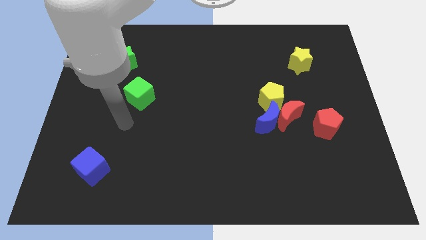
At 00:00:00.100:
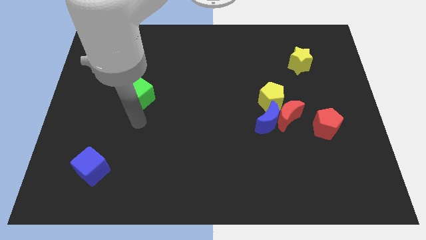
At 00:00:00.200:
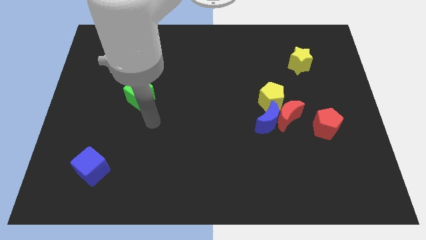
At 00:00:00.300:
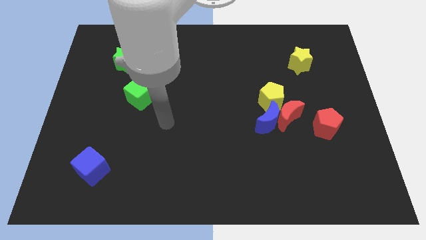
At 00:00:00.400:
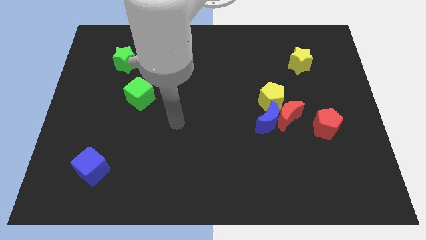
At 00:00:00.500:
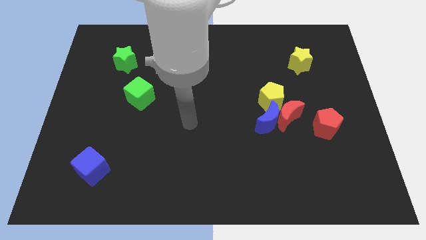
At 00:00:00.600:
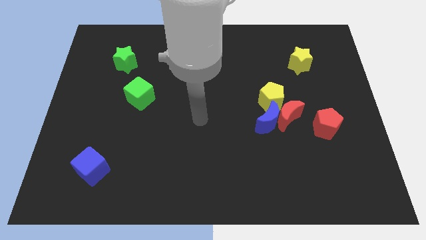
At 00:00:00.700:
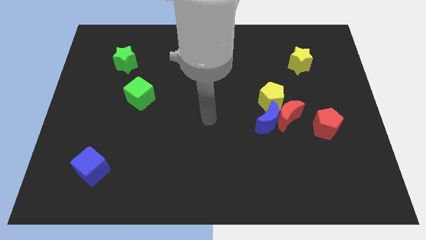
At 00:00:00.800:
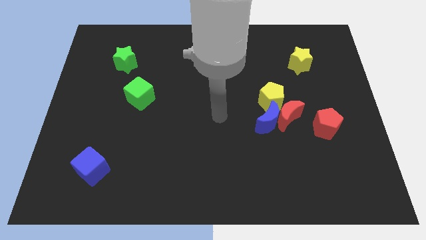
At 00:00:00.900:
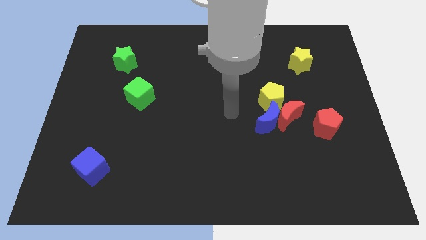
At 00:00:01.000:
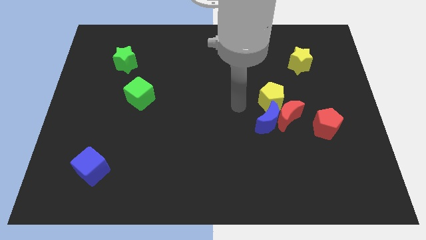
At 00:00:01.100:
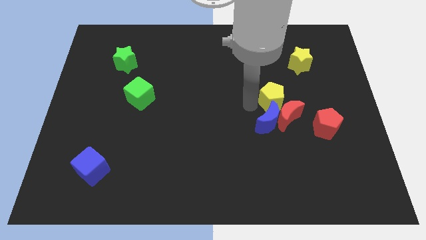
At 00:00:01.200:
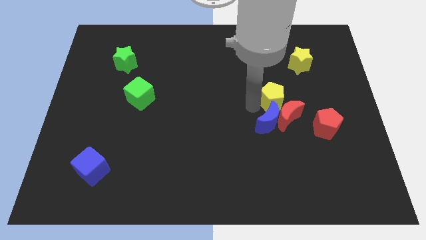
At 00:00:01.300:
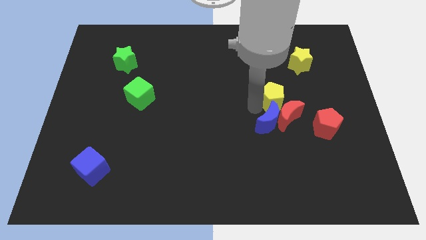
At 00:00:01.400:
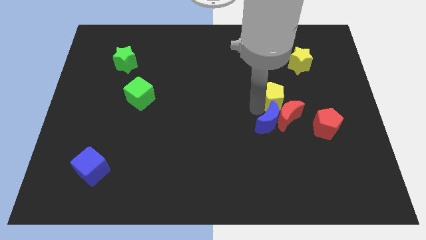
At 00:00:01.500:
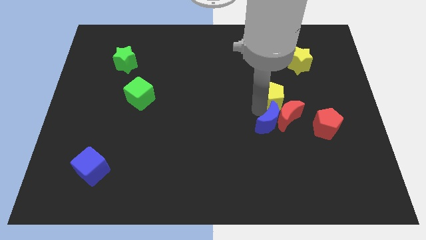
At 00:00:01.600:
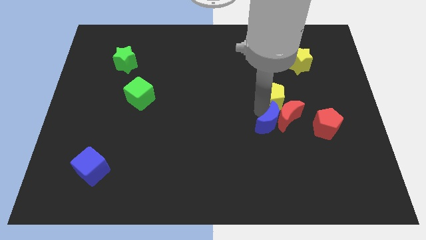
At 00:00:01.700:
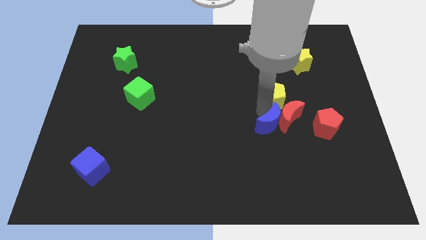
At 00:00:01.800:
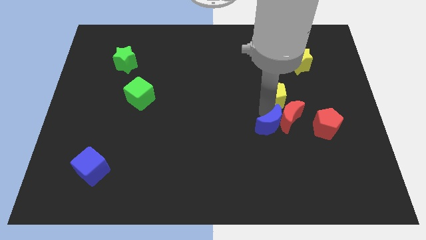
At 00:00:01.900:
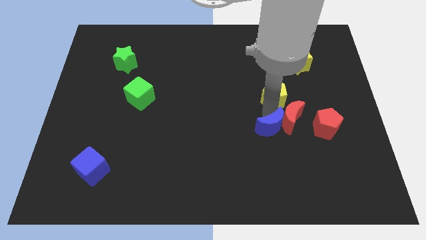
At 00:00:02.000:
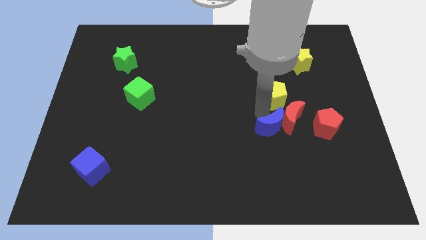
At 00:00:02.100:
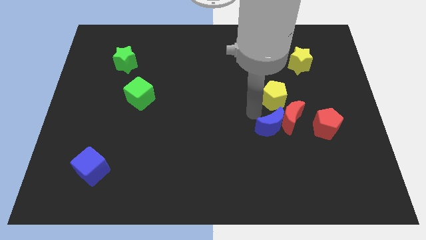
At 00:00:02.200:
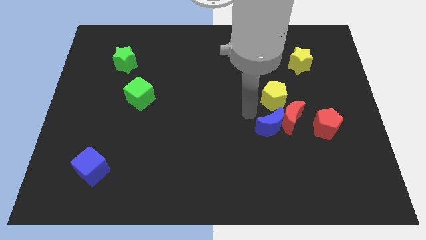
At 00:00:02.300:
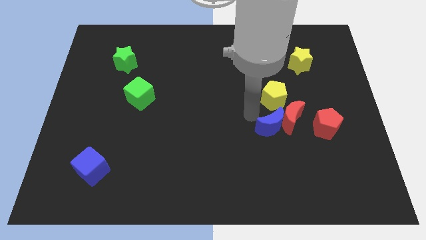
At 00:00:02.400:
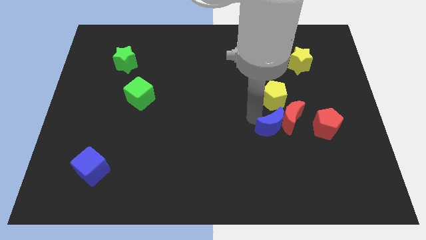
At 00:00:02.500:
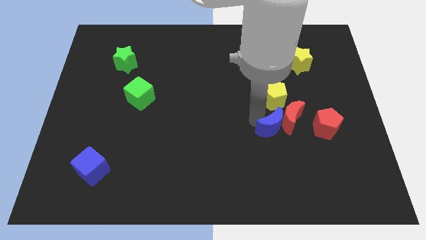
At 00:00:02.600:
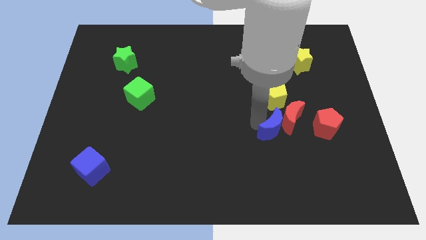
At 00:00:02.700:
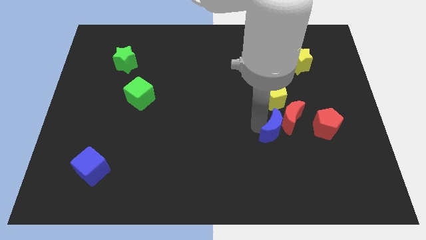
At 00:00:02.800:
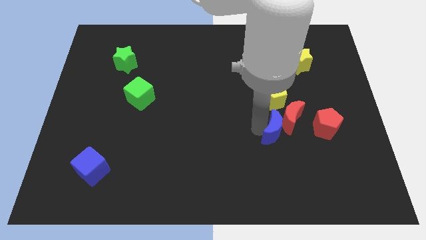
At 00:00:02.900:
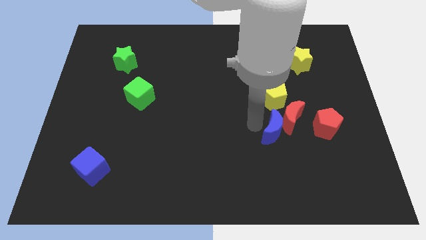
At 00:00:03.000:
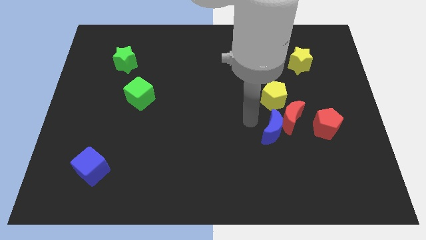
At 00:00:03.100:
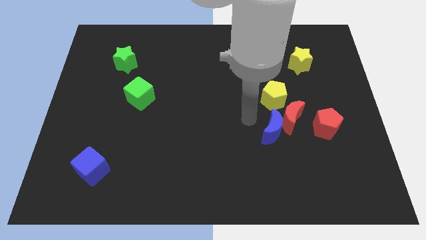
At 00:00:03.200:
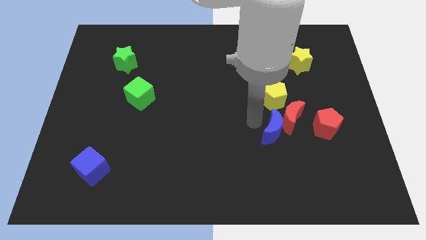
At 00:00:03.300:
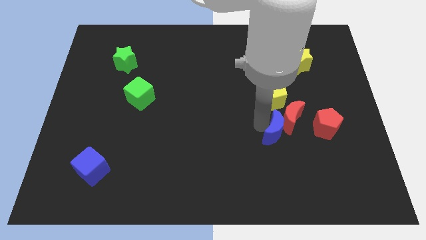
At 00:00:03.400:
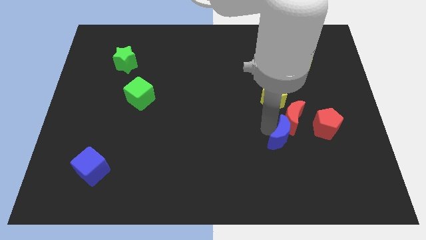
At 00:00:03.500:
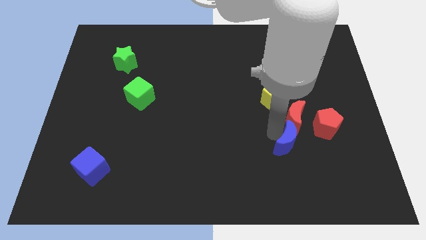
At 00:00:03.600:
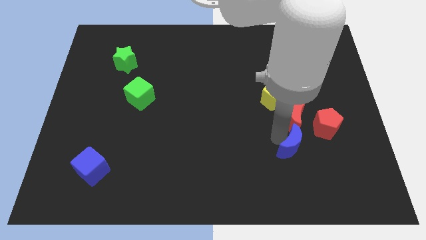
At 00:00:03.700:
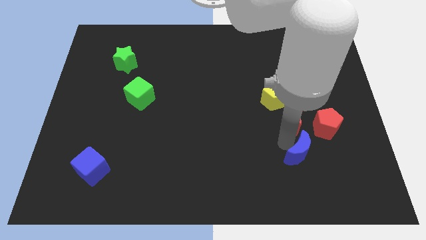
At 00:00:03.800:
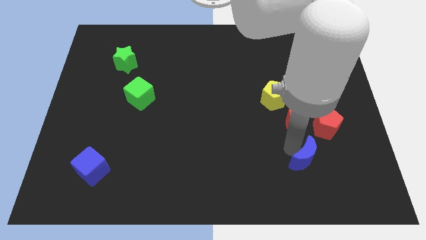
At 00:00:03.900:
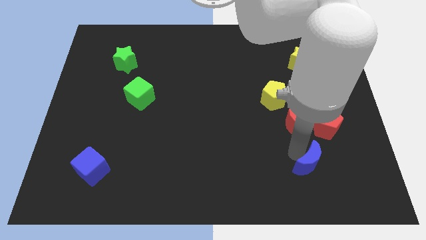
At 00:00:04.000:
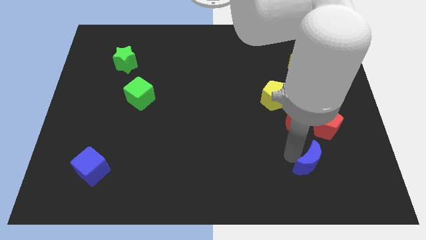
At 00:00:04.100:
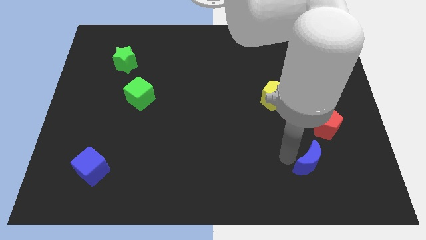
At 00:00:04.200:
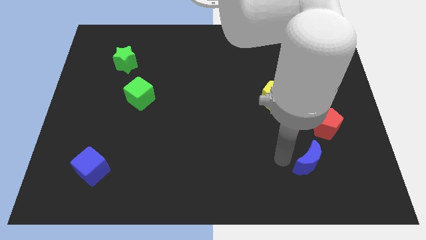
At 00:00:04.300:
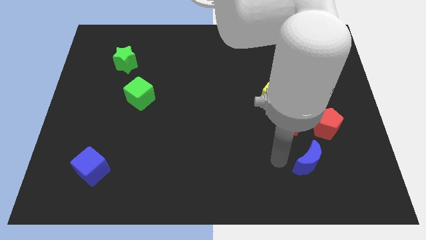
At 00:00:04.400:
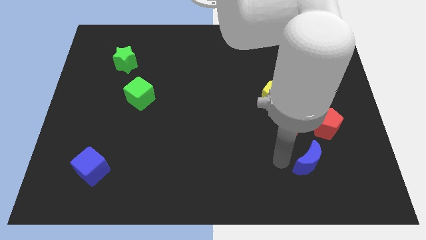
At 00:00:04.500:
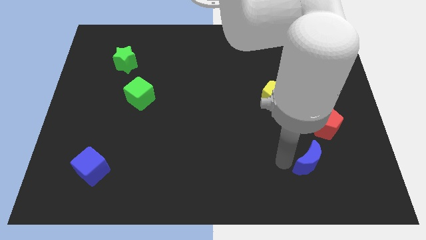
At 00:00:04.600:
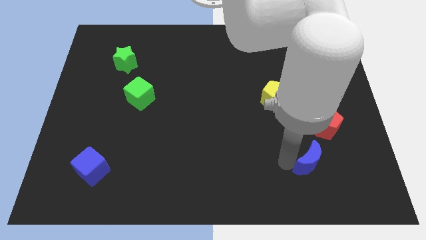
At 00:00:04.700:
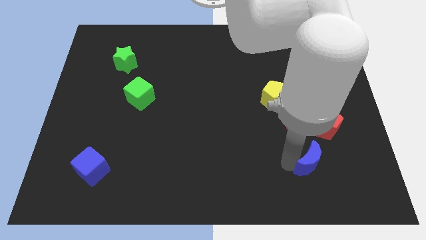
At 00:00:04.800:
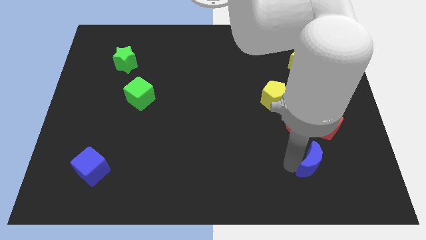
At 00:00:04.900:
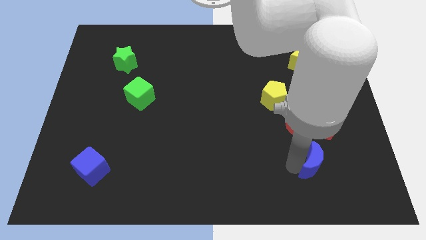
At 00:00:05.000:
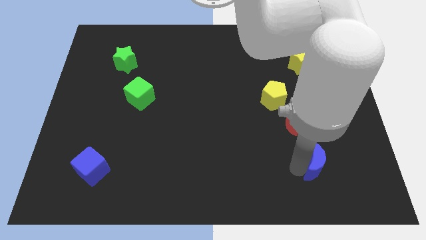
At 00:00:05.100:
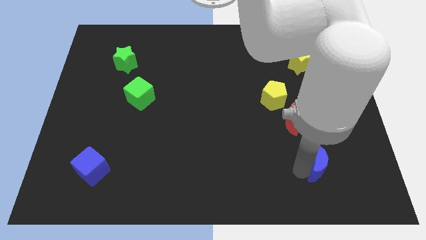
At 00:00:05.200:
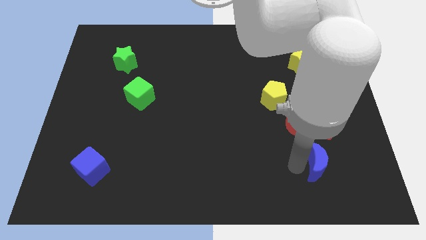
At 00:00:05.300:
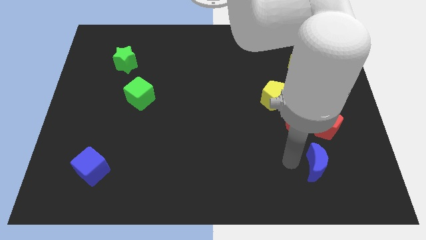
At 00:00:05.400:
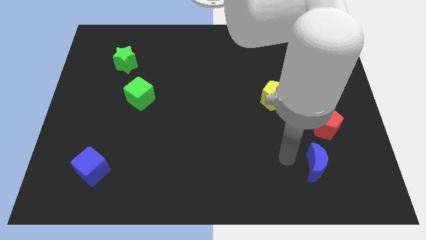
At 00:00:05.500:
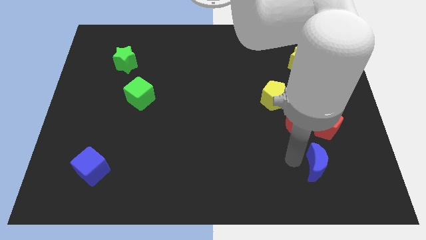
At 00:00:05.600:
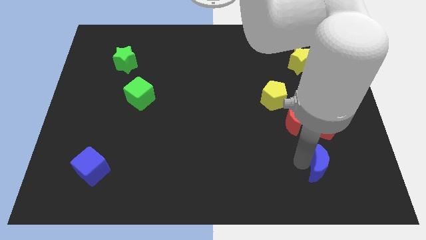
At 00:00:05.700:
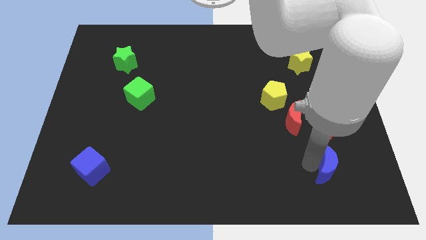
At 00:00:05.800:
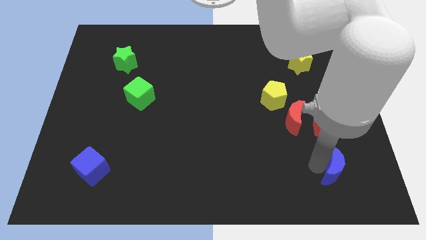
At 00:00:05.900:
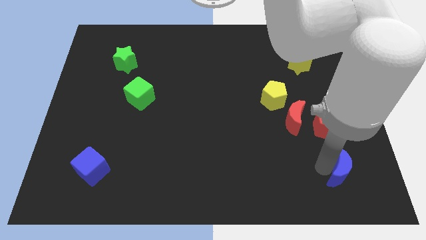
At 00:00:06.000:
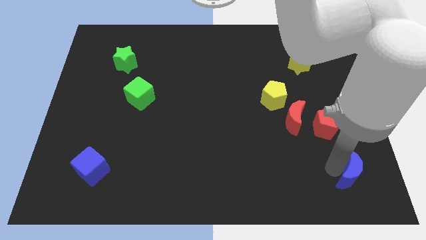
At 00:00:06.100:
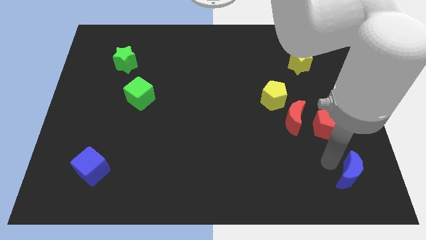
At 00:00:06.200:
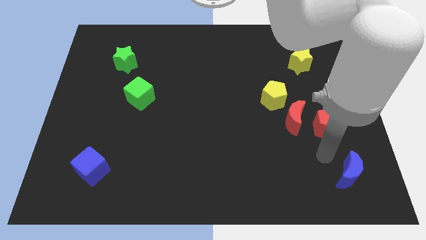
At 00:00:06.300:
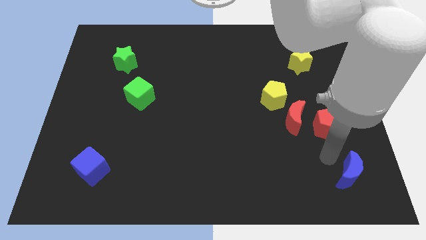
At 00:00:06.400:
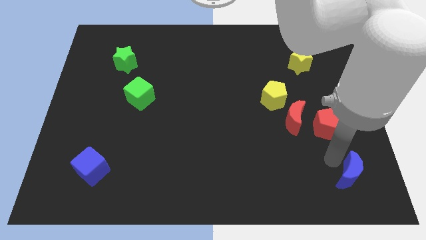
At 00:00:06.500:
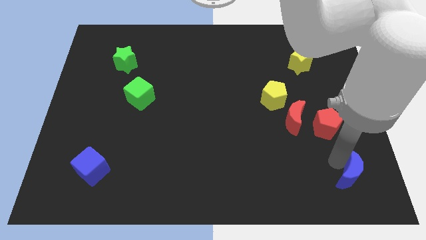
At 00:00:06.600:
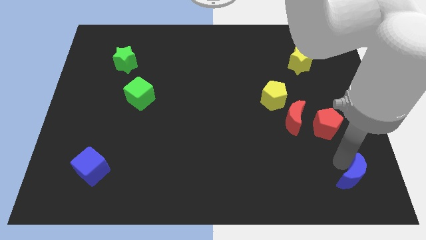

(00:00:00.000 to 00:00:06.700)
put the blue moon to the bottom right corner

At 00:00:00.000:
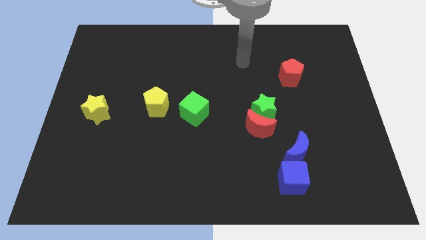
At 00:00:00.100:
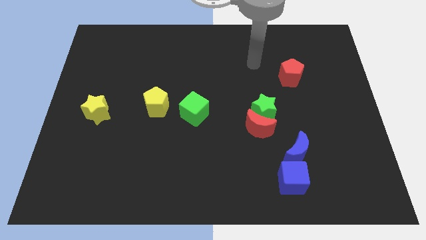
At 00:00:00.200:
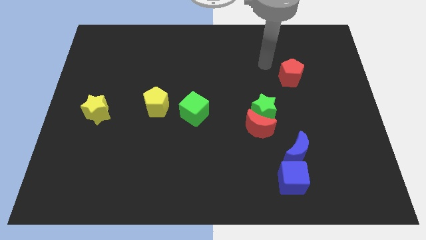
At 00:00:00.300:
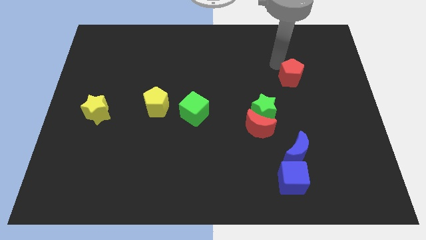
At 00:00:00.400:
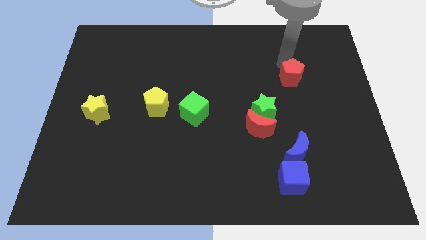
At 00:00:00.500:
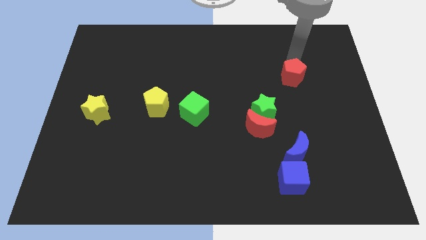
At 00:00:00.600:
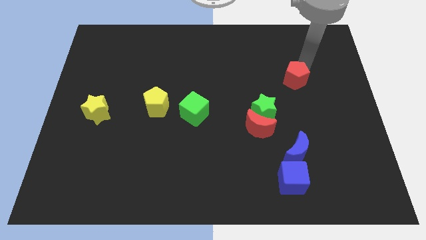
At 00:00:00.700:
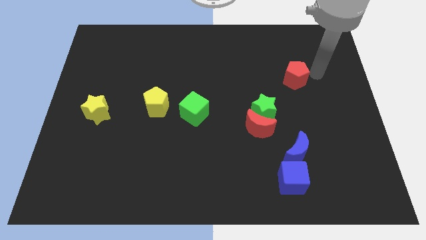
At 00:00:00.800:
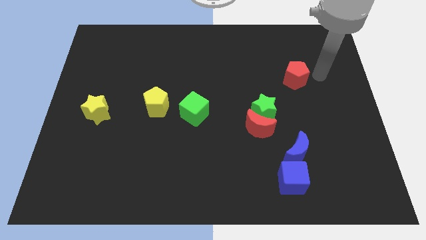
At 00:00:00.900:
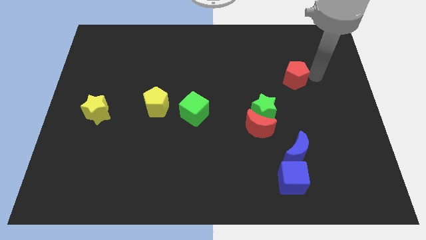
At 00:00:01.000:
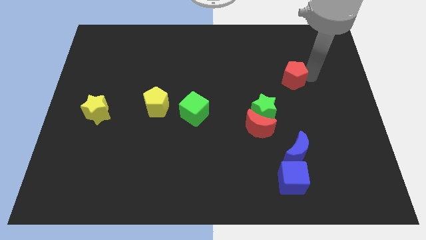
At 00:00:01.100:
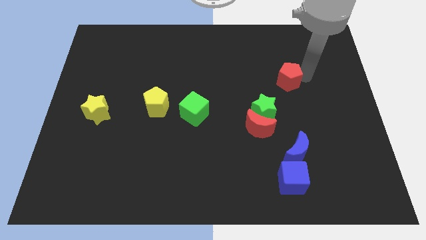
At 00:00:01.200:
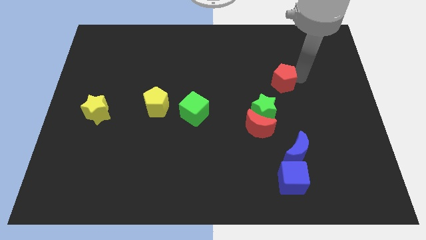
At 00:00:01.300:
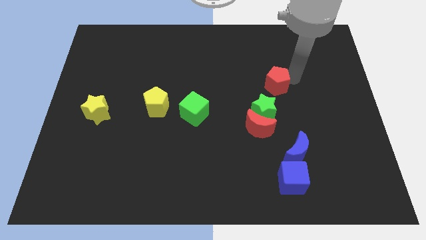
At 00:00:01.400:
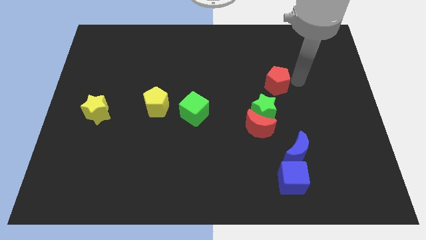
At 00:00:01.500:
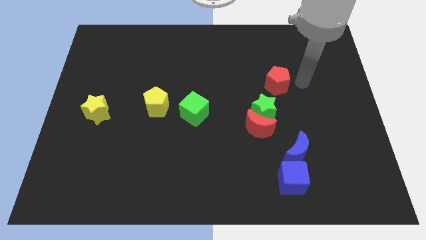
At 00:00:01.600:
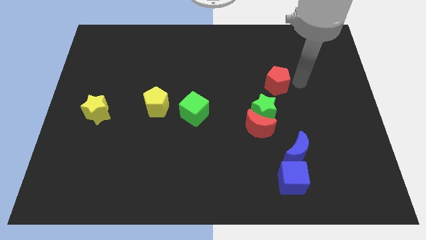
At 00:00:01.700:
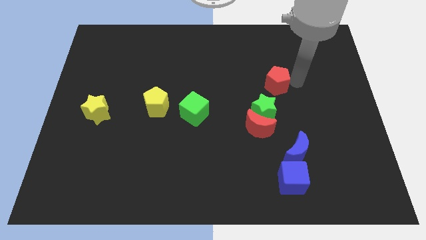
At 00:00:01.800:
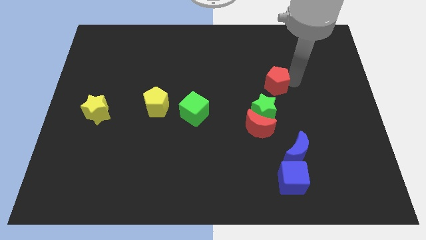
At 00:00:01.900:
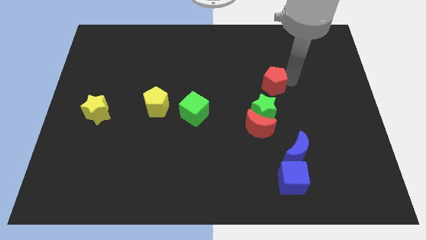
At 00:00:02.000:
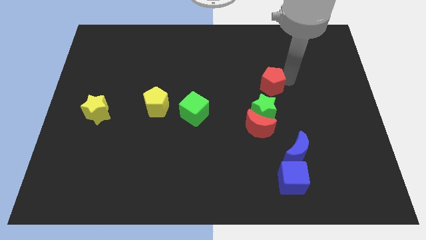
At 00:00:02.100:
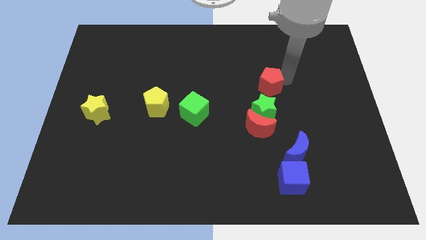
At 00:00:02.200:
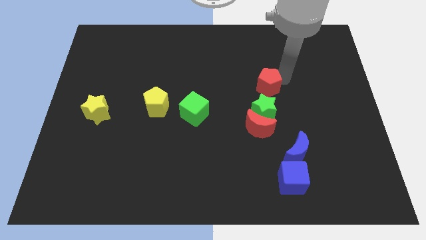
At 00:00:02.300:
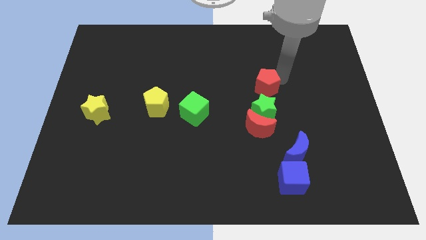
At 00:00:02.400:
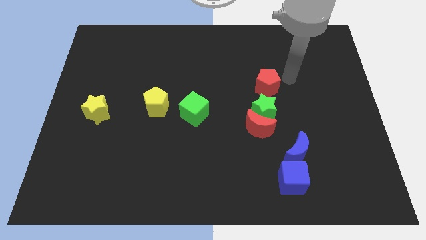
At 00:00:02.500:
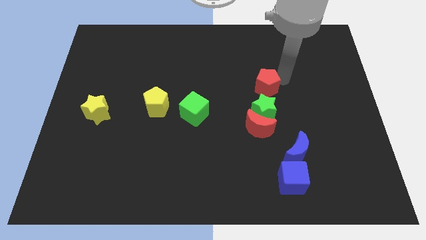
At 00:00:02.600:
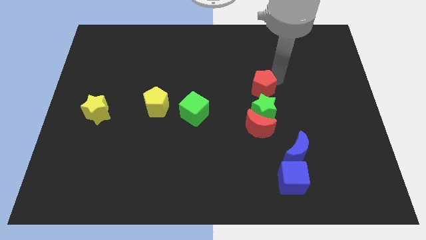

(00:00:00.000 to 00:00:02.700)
push the red pentagon to the center
